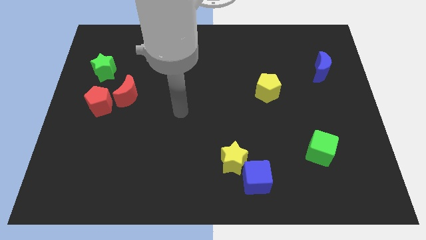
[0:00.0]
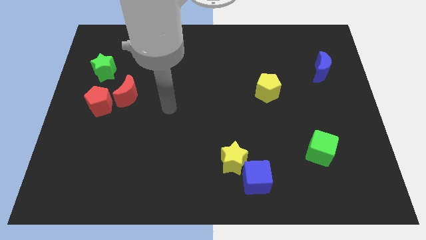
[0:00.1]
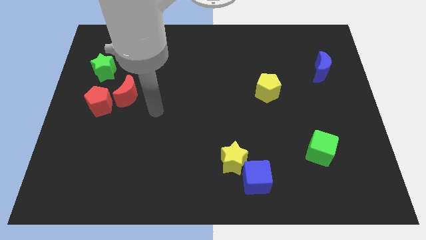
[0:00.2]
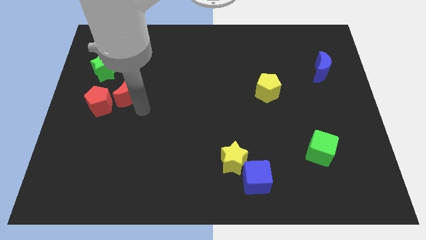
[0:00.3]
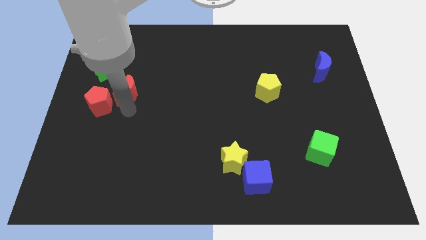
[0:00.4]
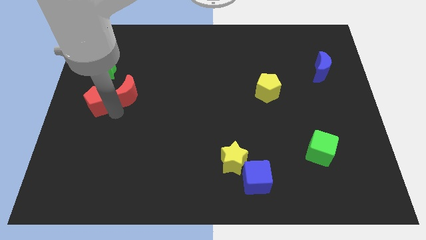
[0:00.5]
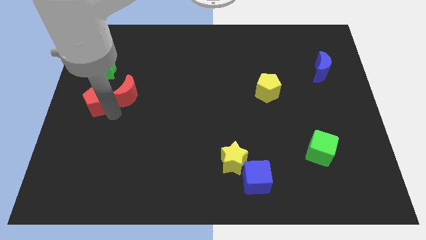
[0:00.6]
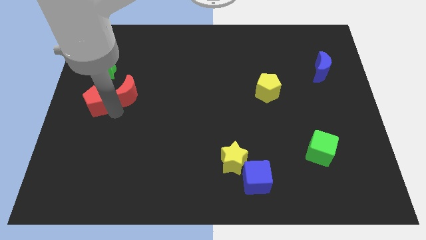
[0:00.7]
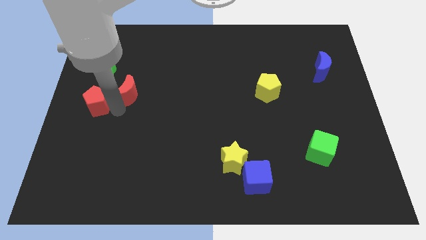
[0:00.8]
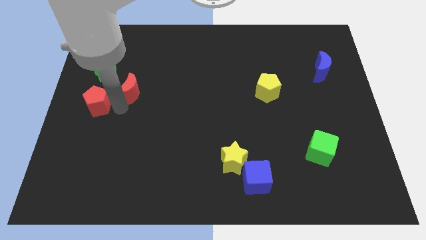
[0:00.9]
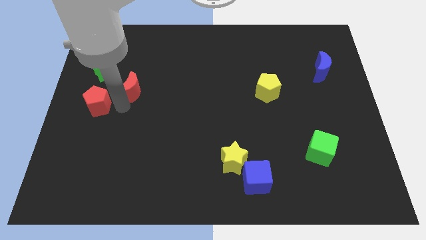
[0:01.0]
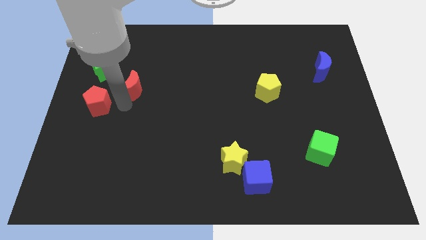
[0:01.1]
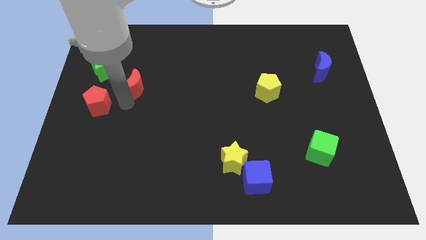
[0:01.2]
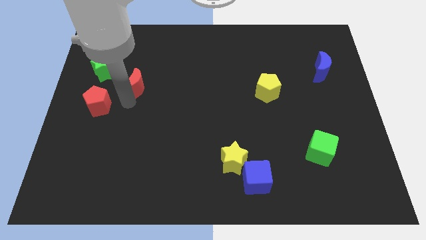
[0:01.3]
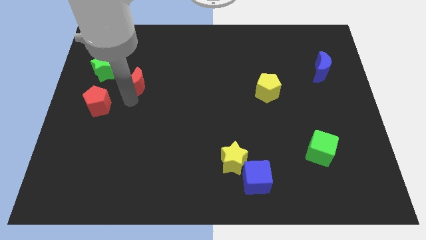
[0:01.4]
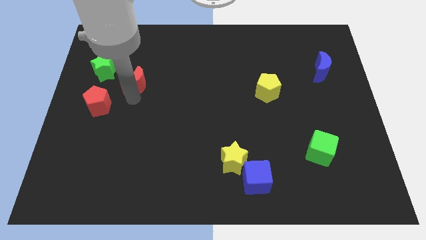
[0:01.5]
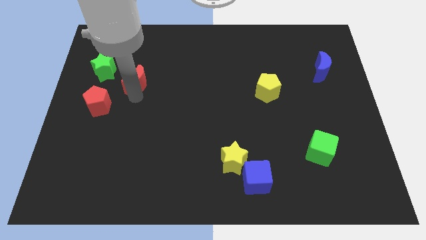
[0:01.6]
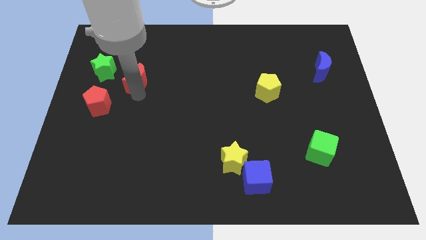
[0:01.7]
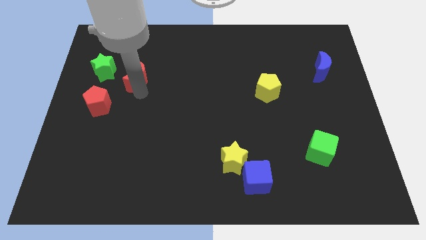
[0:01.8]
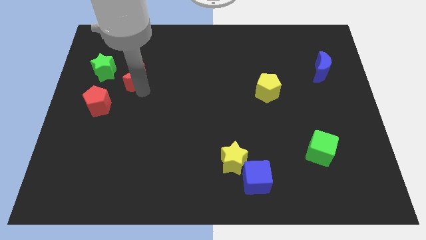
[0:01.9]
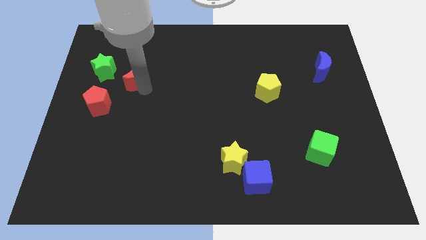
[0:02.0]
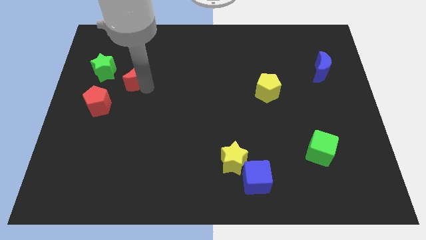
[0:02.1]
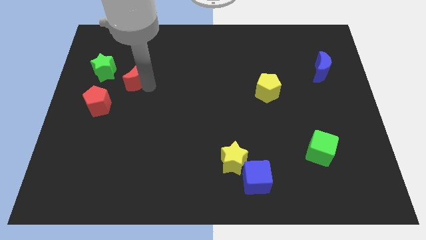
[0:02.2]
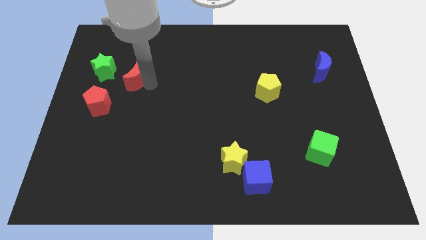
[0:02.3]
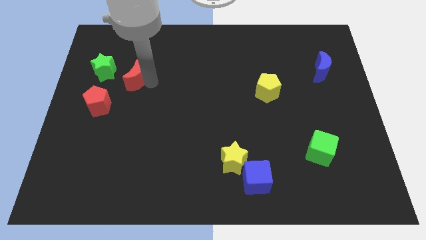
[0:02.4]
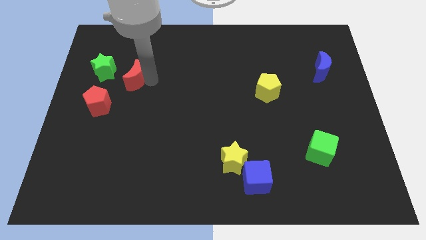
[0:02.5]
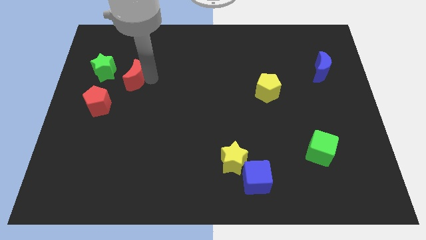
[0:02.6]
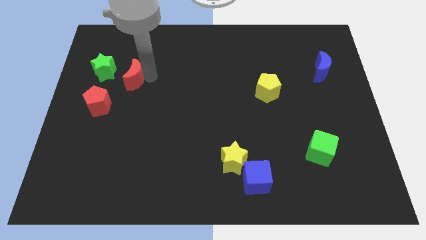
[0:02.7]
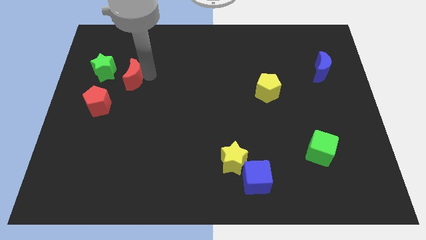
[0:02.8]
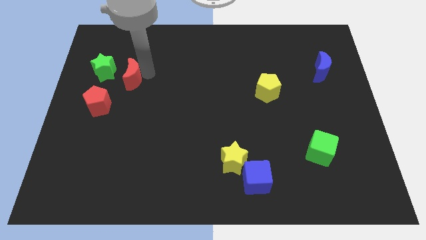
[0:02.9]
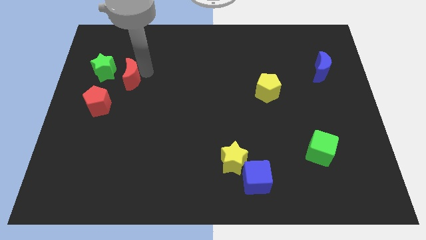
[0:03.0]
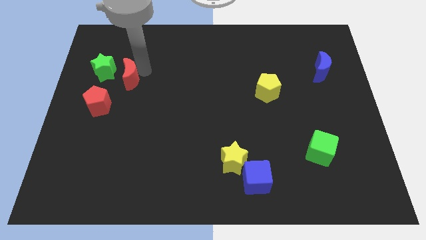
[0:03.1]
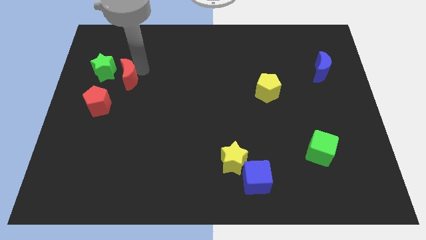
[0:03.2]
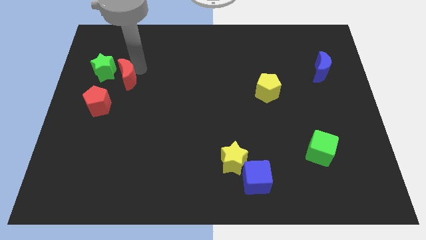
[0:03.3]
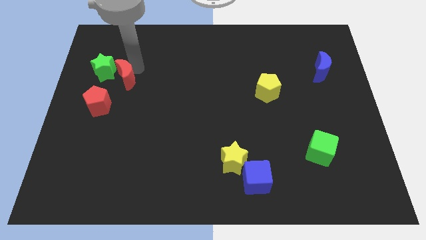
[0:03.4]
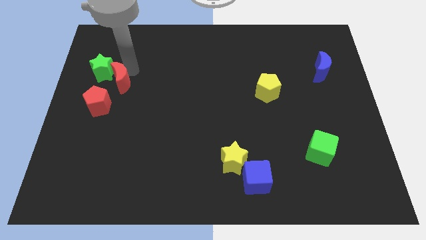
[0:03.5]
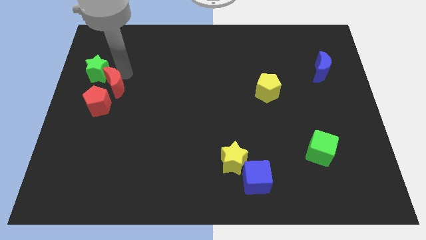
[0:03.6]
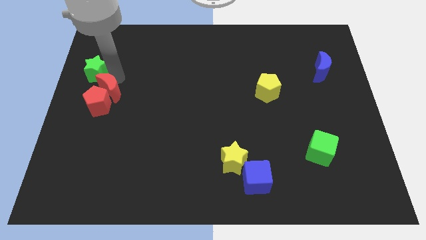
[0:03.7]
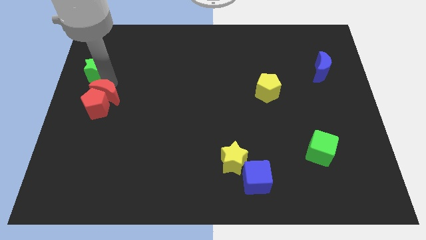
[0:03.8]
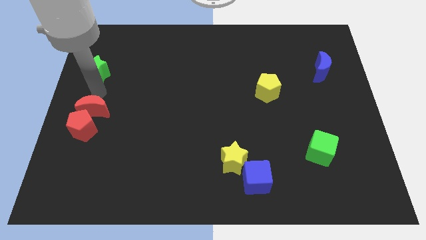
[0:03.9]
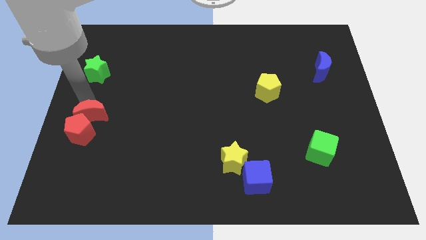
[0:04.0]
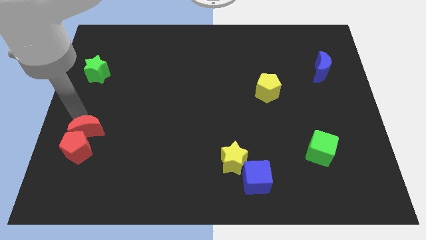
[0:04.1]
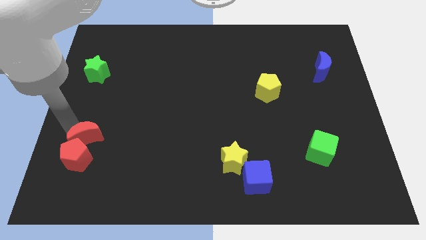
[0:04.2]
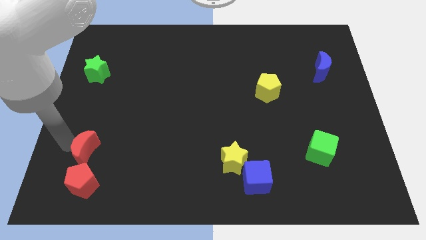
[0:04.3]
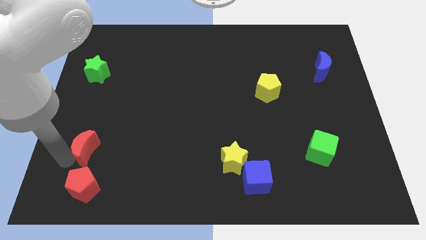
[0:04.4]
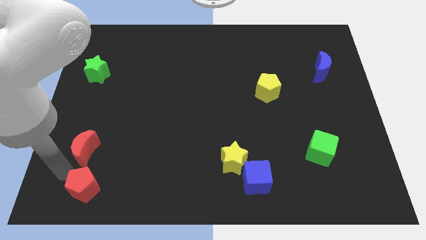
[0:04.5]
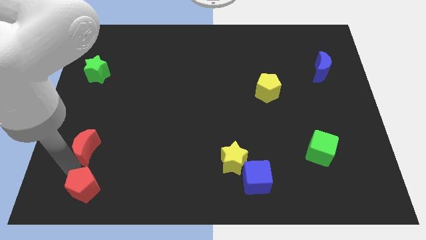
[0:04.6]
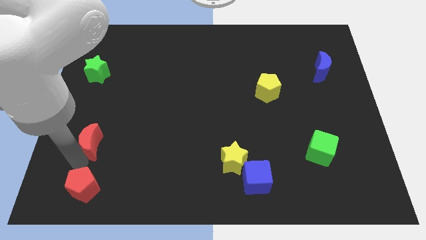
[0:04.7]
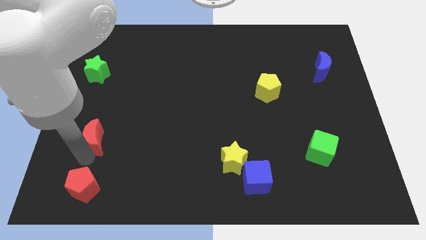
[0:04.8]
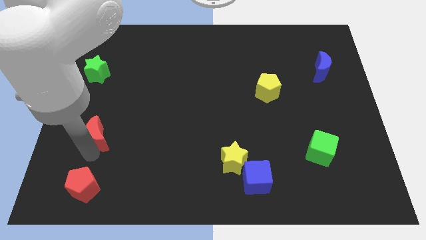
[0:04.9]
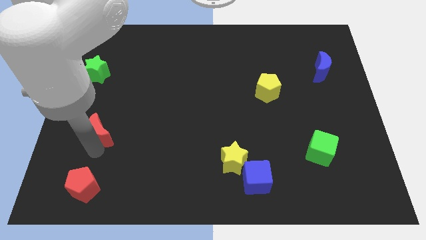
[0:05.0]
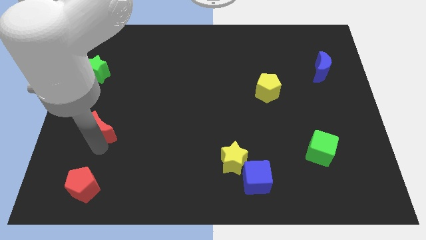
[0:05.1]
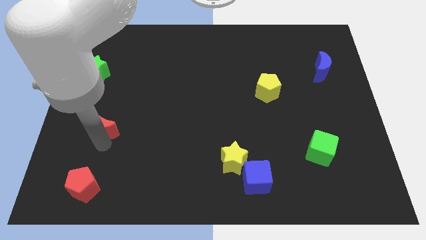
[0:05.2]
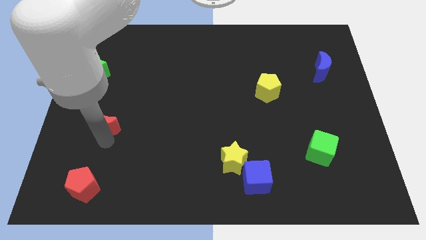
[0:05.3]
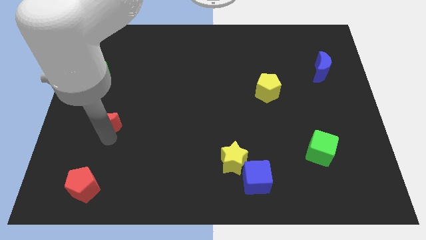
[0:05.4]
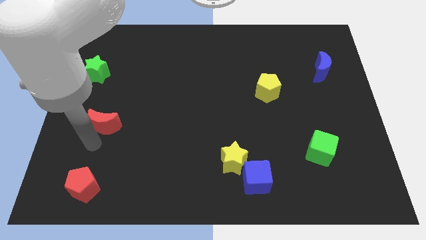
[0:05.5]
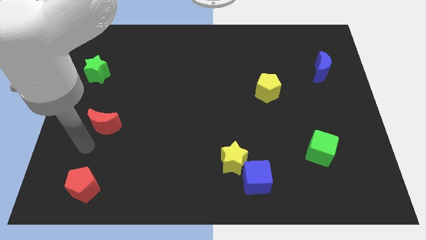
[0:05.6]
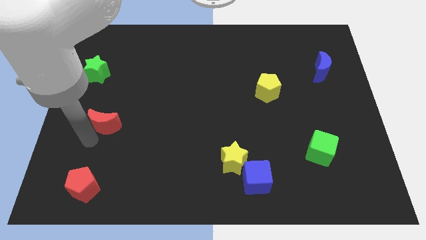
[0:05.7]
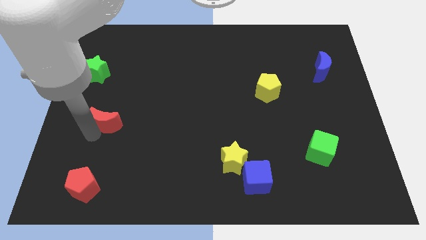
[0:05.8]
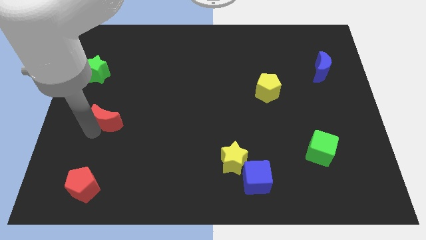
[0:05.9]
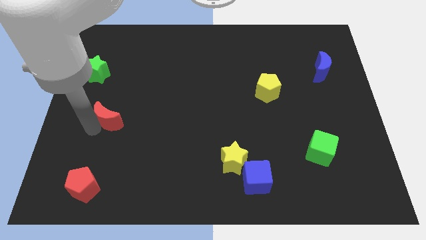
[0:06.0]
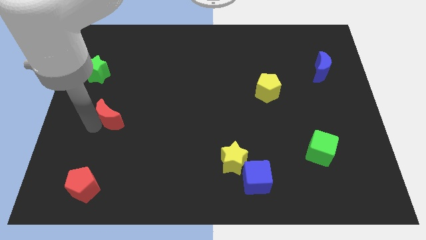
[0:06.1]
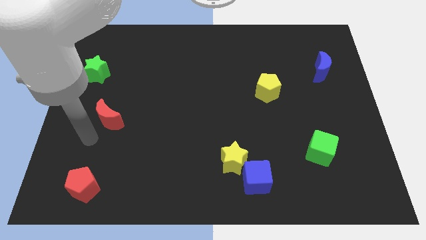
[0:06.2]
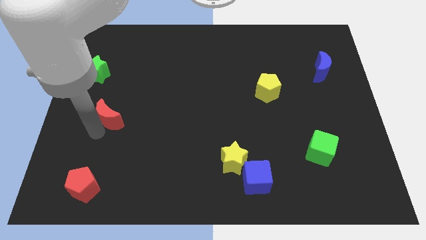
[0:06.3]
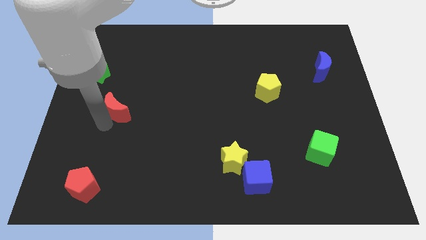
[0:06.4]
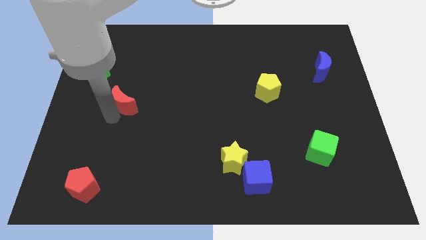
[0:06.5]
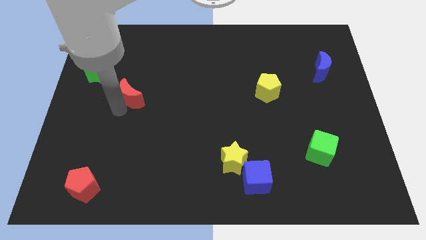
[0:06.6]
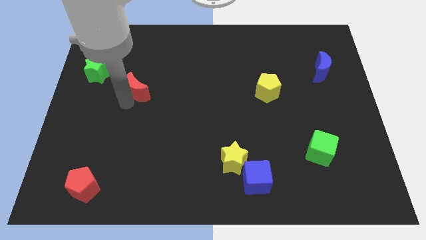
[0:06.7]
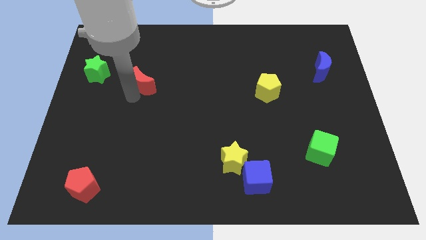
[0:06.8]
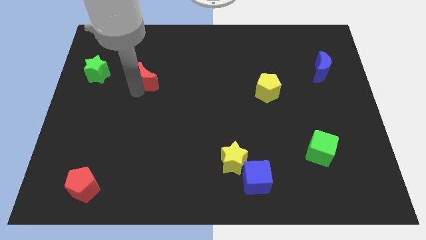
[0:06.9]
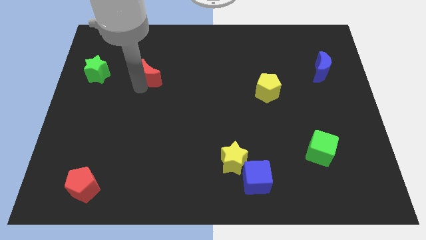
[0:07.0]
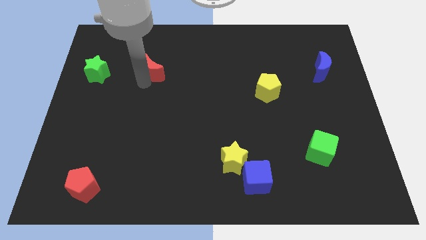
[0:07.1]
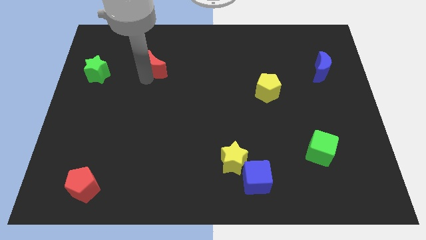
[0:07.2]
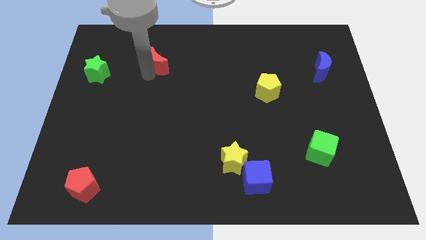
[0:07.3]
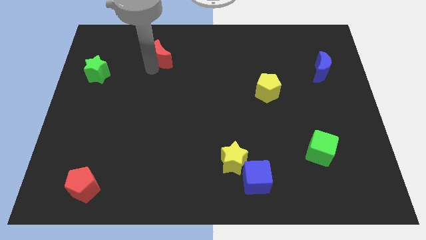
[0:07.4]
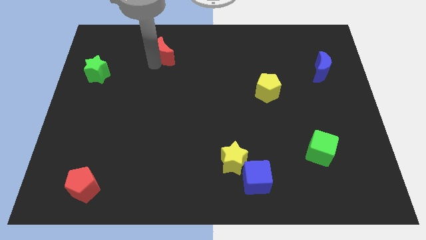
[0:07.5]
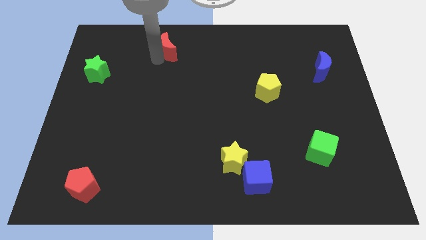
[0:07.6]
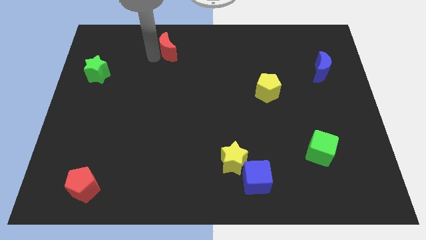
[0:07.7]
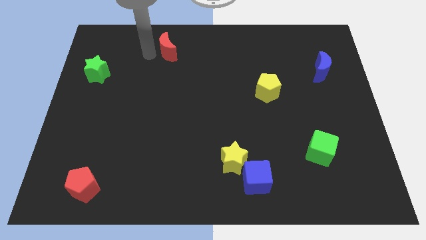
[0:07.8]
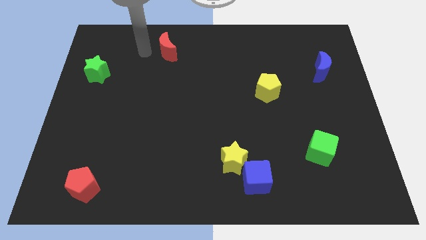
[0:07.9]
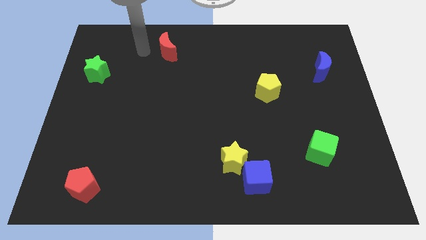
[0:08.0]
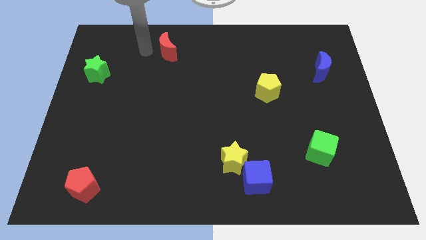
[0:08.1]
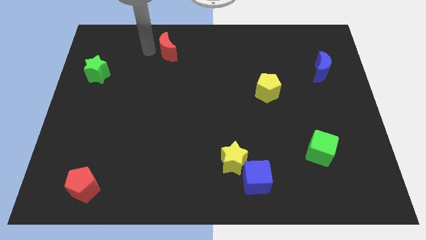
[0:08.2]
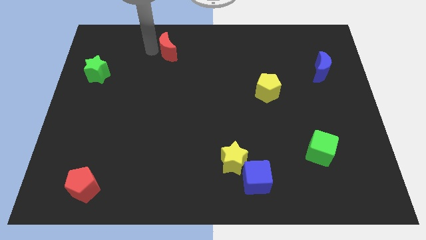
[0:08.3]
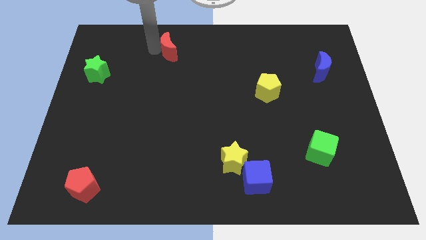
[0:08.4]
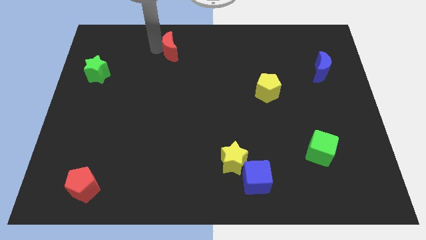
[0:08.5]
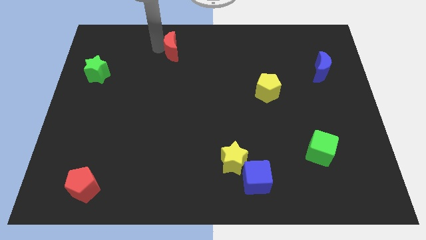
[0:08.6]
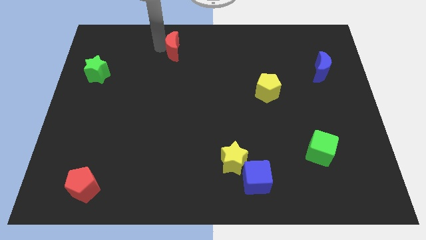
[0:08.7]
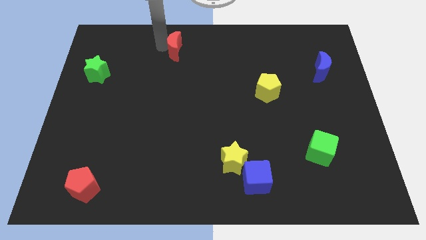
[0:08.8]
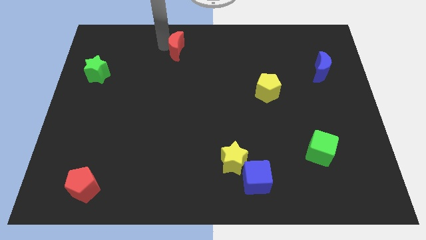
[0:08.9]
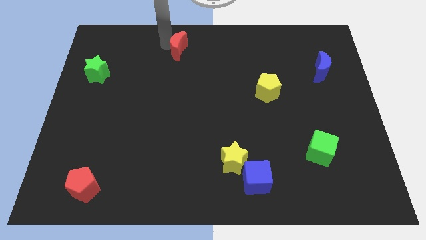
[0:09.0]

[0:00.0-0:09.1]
slide the red moon to the top side
